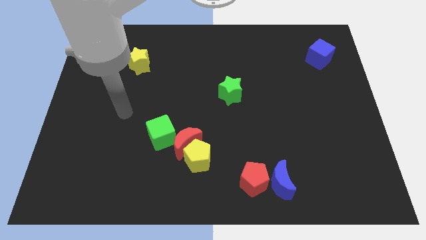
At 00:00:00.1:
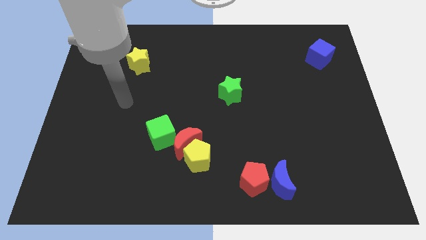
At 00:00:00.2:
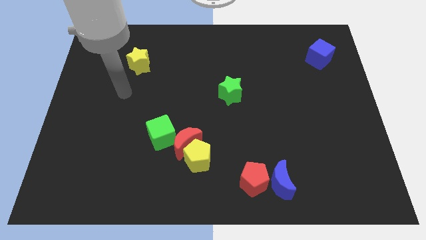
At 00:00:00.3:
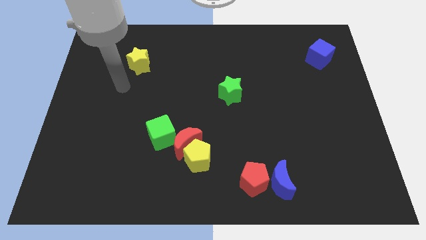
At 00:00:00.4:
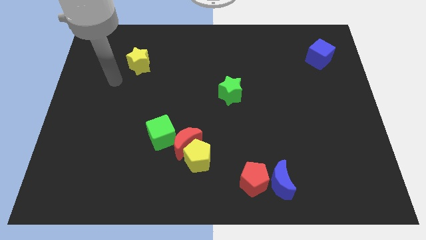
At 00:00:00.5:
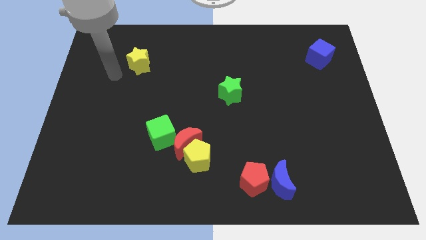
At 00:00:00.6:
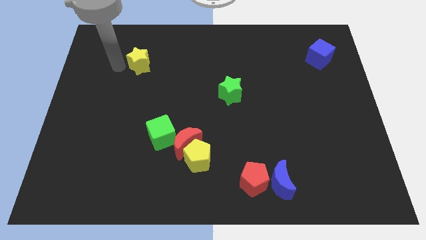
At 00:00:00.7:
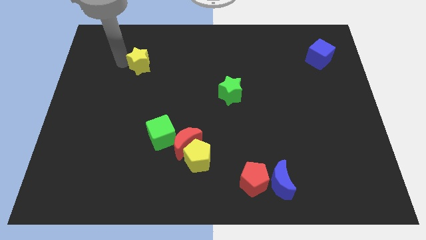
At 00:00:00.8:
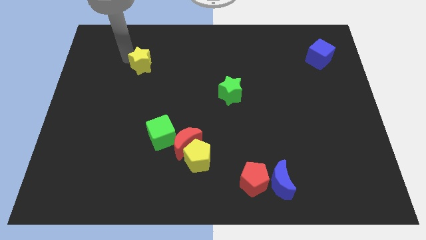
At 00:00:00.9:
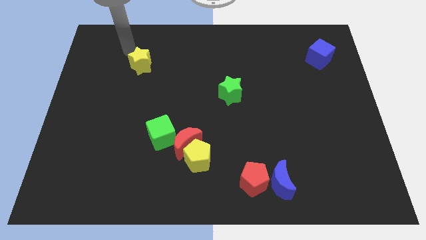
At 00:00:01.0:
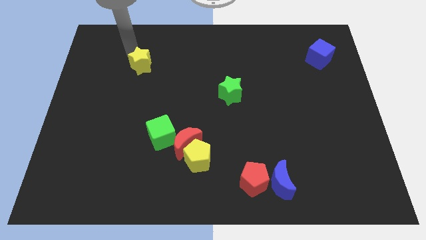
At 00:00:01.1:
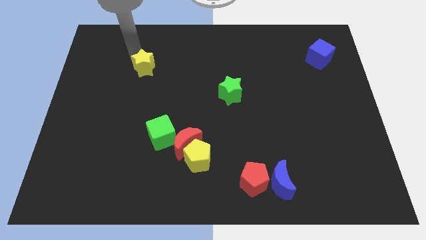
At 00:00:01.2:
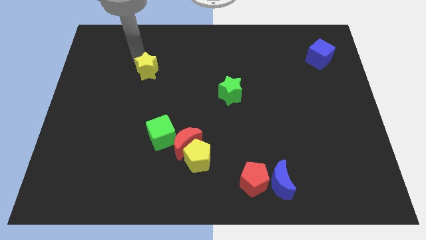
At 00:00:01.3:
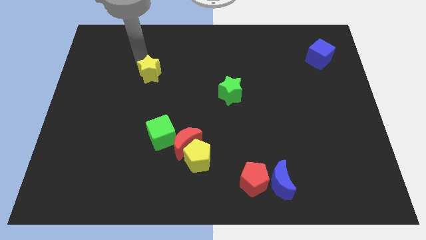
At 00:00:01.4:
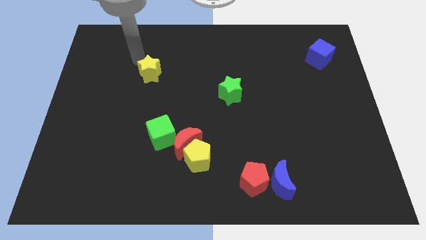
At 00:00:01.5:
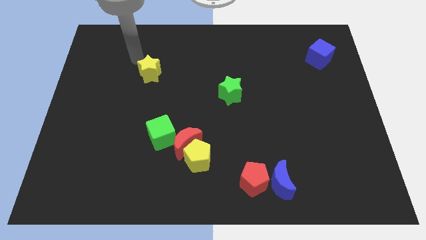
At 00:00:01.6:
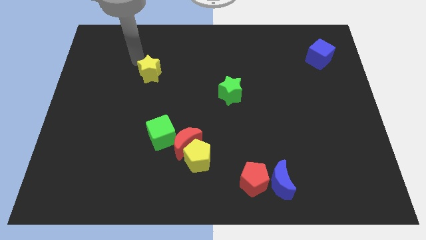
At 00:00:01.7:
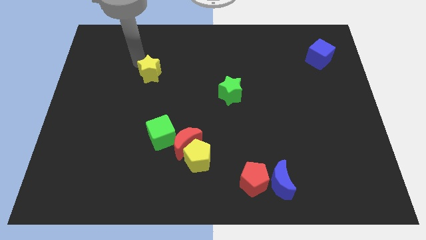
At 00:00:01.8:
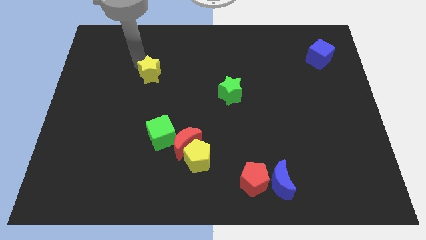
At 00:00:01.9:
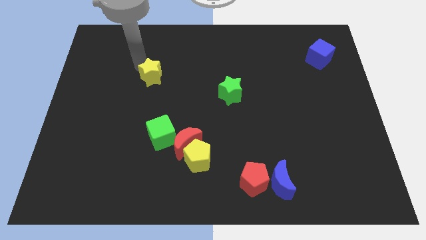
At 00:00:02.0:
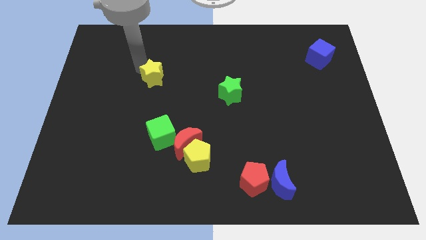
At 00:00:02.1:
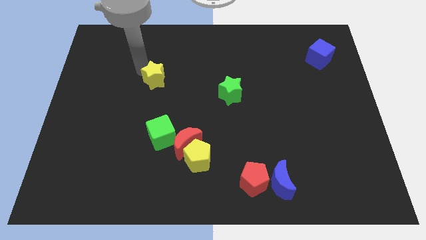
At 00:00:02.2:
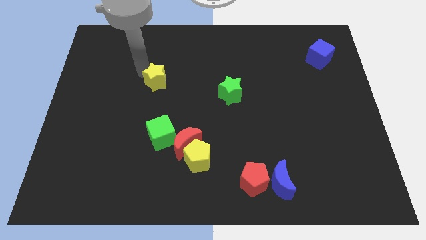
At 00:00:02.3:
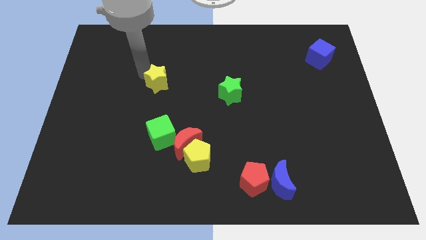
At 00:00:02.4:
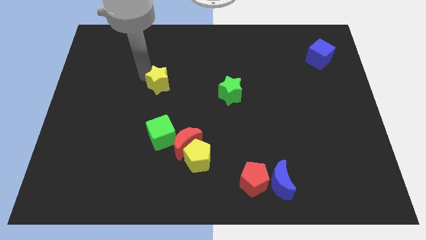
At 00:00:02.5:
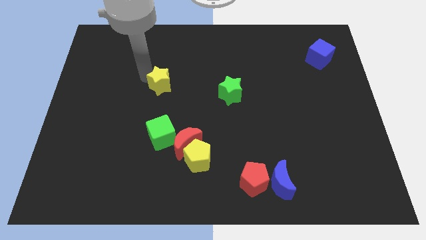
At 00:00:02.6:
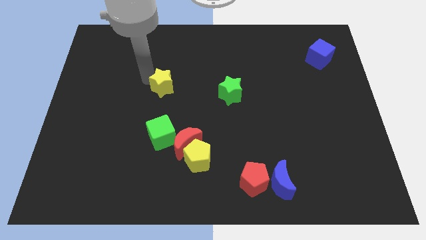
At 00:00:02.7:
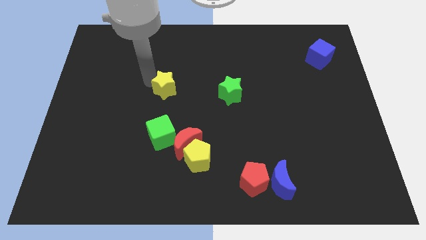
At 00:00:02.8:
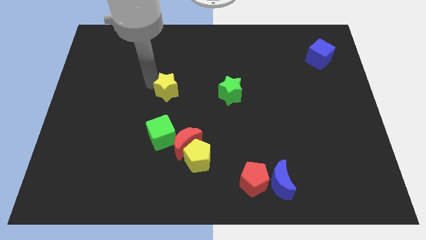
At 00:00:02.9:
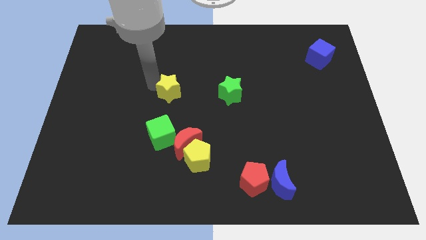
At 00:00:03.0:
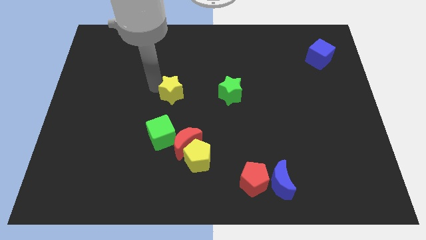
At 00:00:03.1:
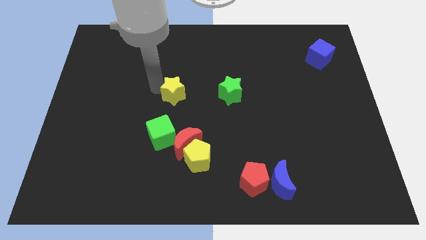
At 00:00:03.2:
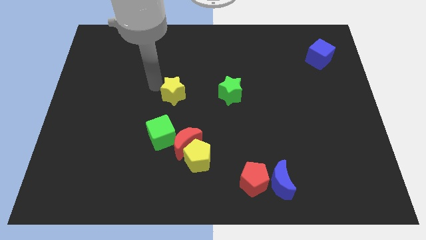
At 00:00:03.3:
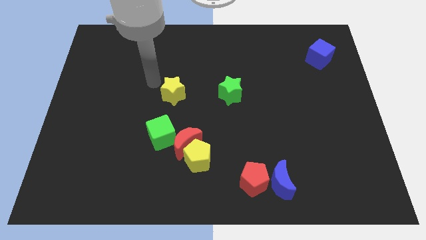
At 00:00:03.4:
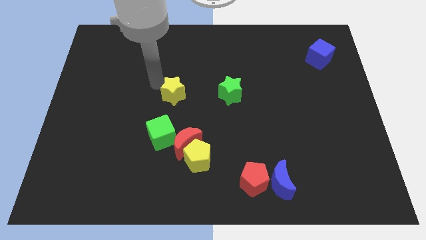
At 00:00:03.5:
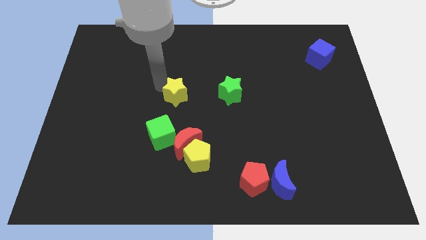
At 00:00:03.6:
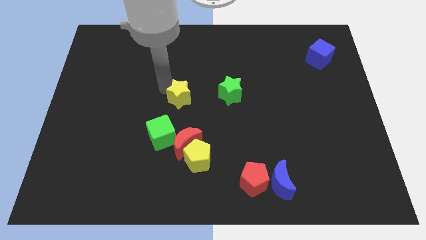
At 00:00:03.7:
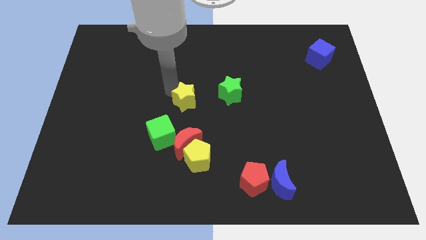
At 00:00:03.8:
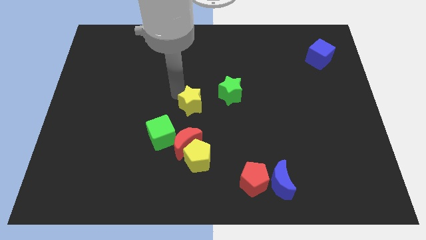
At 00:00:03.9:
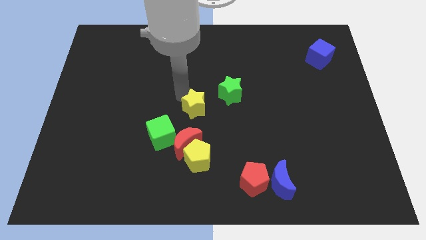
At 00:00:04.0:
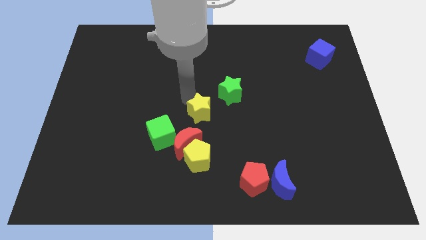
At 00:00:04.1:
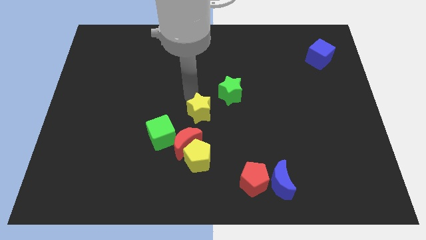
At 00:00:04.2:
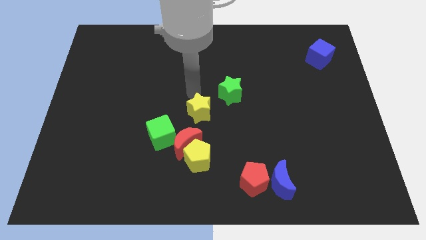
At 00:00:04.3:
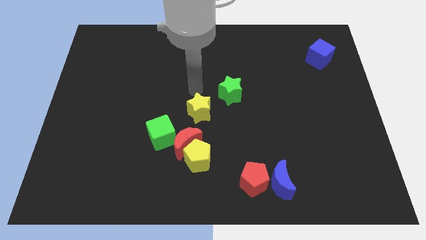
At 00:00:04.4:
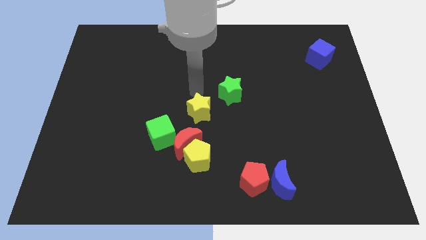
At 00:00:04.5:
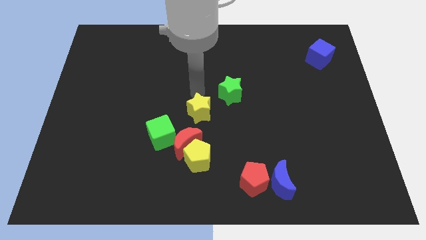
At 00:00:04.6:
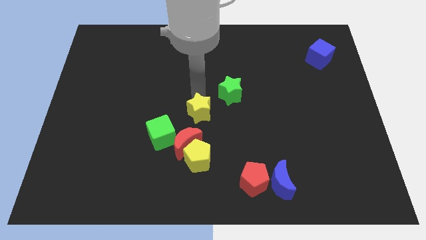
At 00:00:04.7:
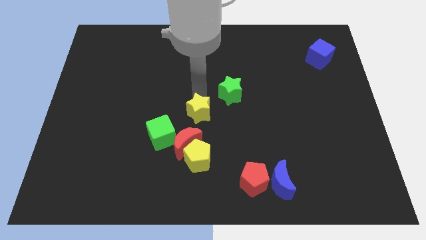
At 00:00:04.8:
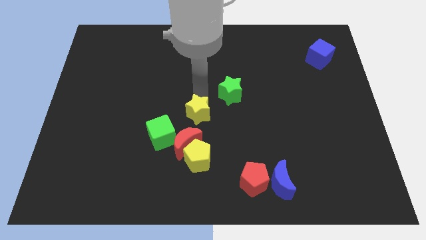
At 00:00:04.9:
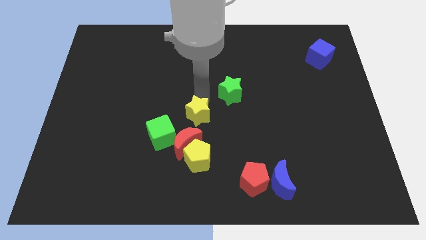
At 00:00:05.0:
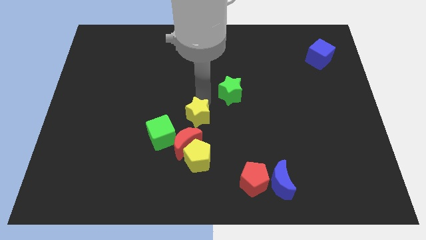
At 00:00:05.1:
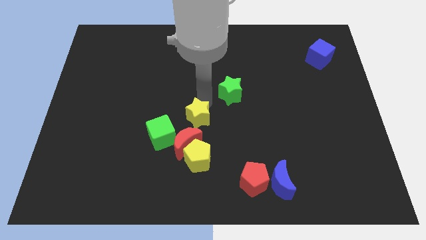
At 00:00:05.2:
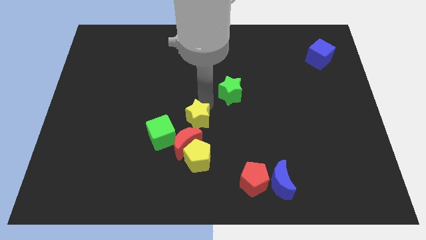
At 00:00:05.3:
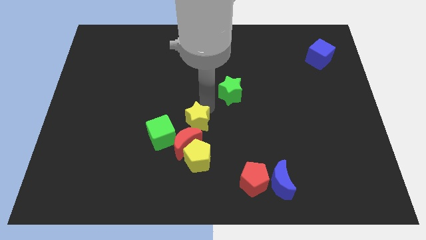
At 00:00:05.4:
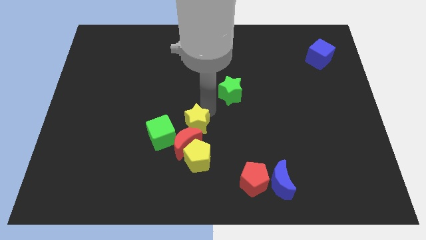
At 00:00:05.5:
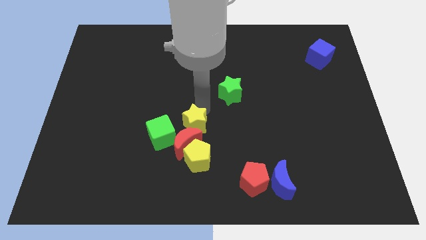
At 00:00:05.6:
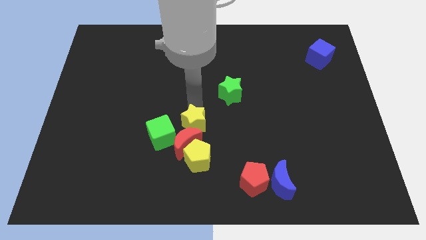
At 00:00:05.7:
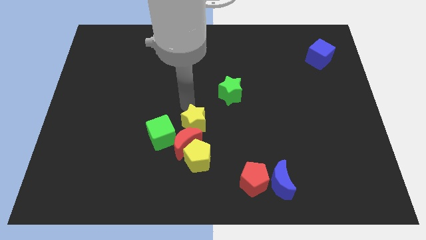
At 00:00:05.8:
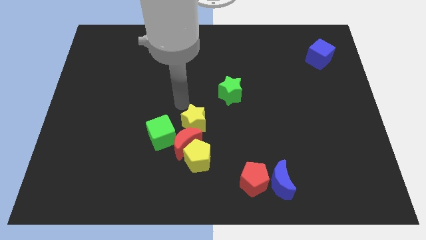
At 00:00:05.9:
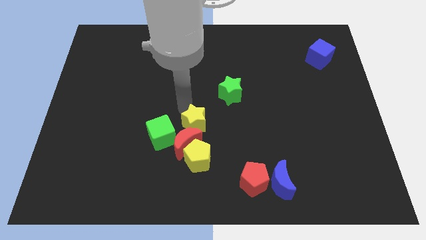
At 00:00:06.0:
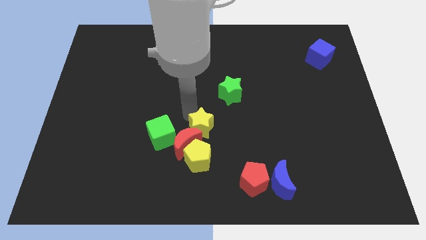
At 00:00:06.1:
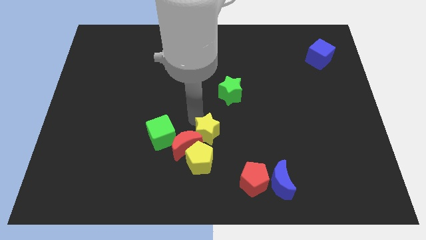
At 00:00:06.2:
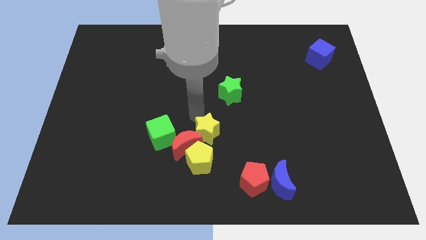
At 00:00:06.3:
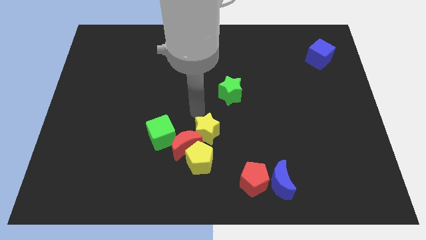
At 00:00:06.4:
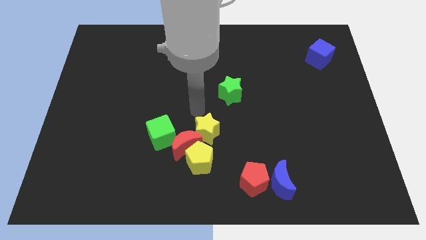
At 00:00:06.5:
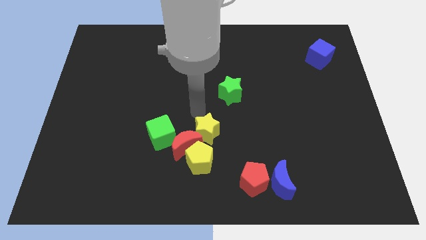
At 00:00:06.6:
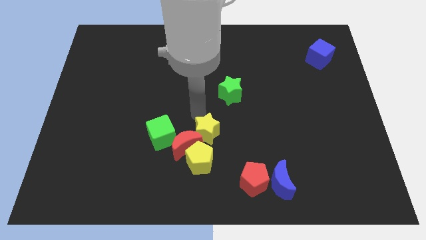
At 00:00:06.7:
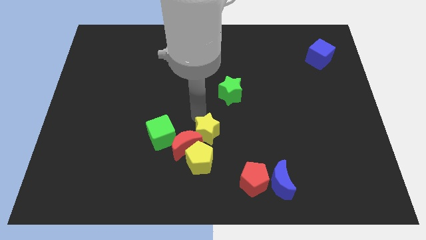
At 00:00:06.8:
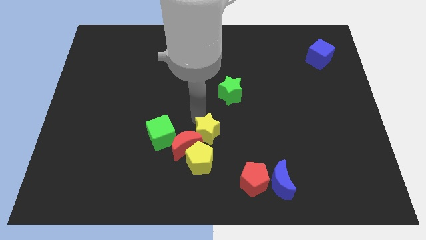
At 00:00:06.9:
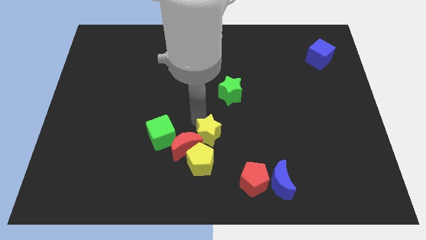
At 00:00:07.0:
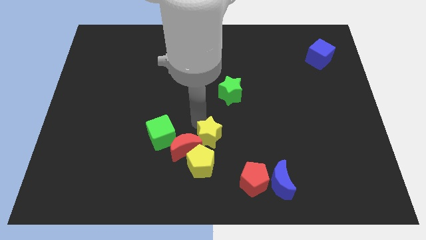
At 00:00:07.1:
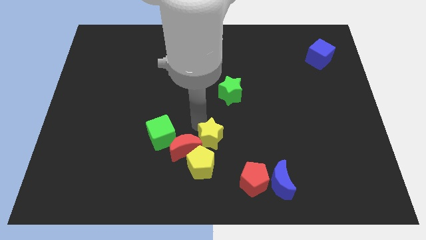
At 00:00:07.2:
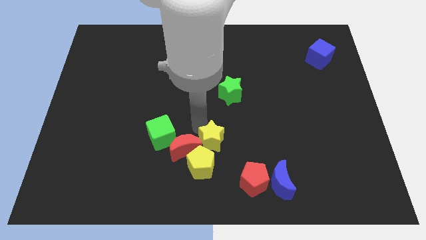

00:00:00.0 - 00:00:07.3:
put the yellow star to the top left side of the red pentagon
